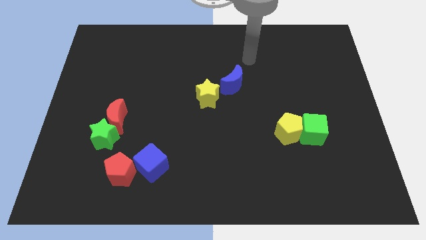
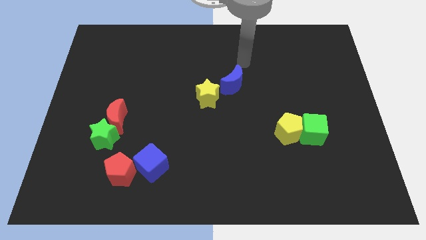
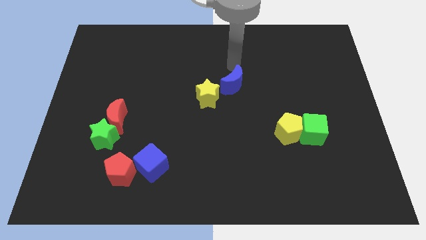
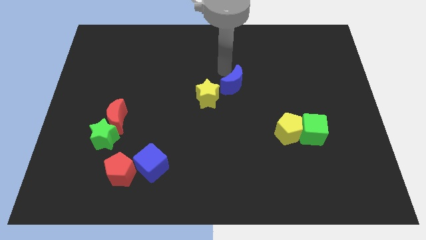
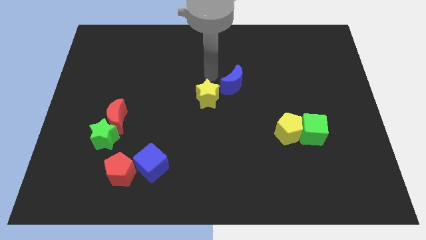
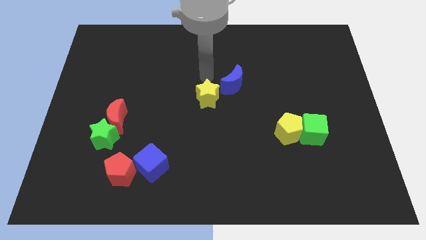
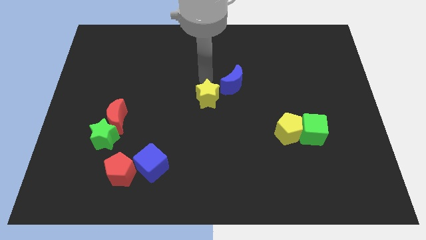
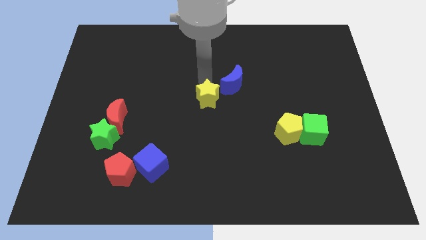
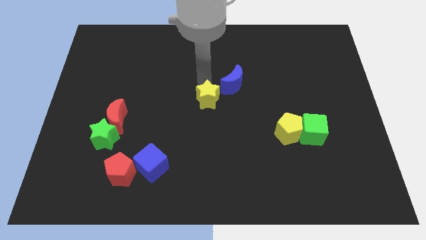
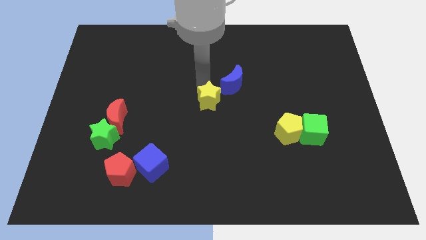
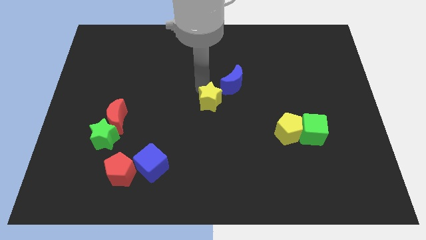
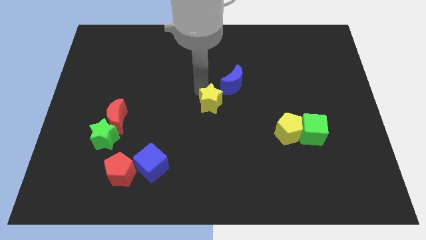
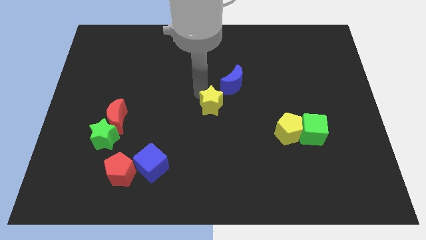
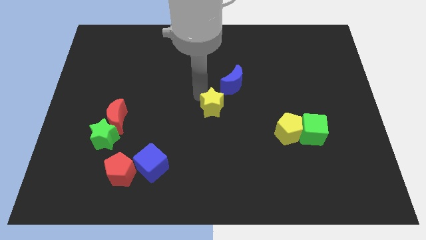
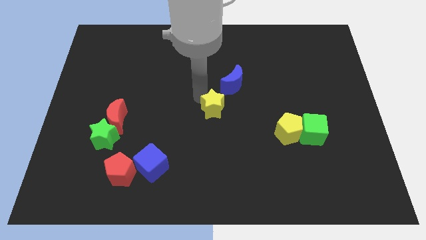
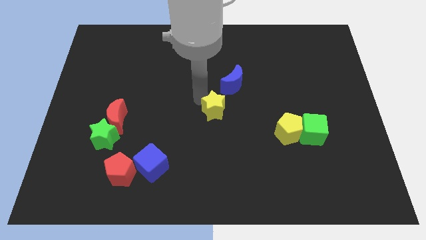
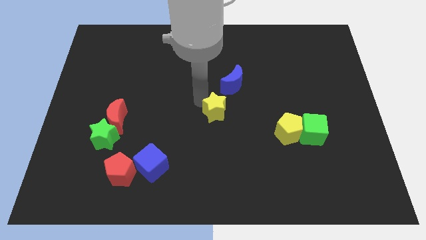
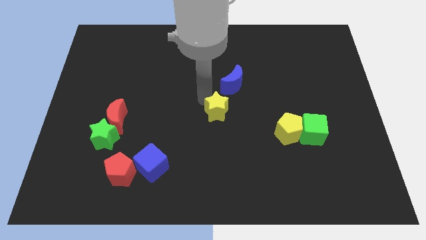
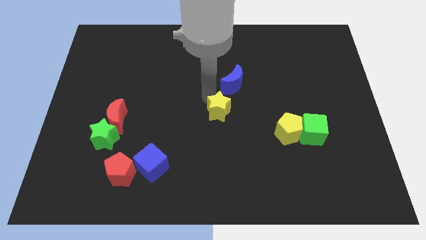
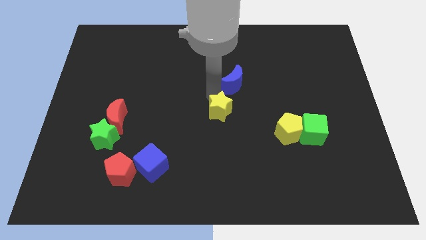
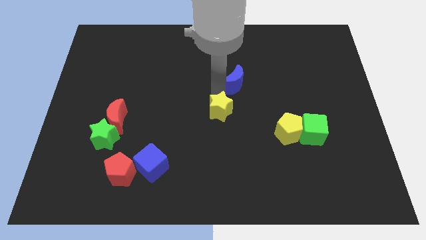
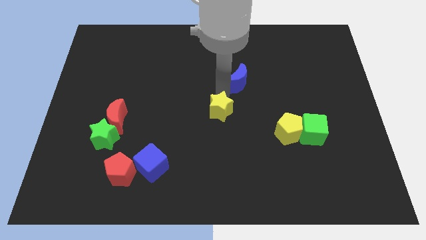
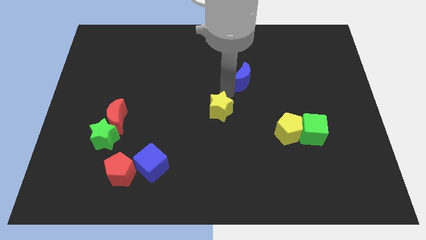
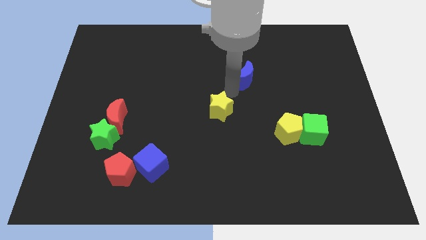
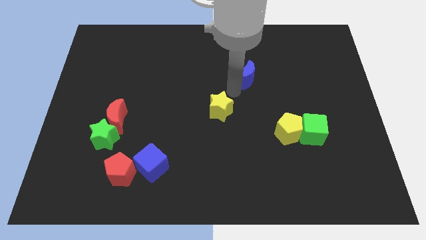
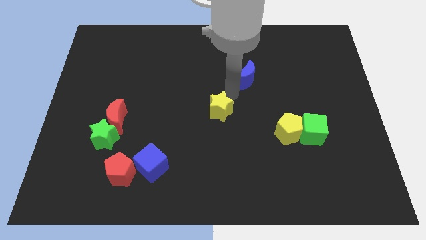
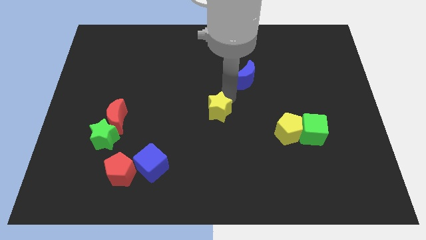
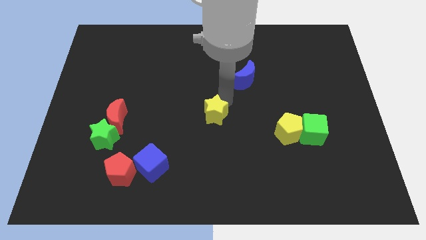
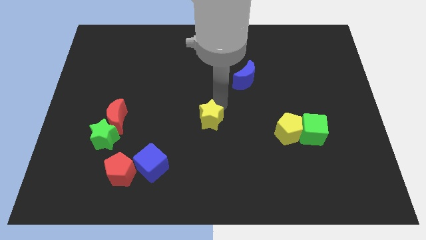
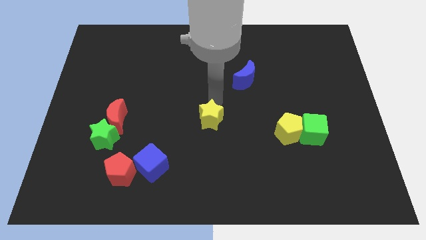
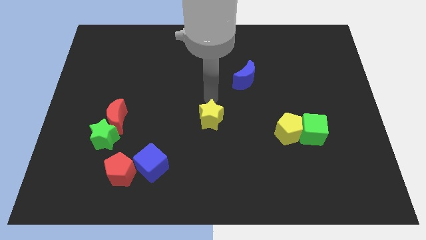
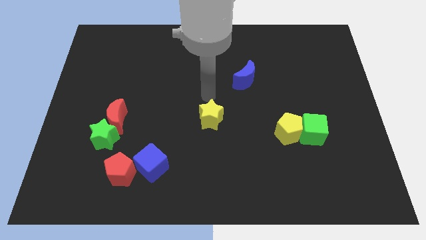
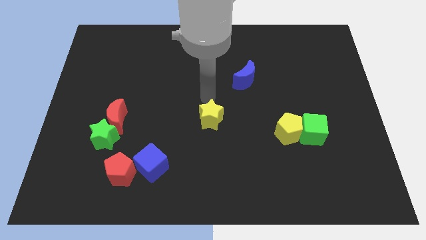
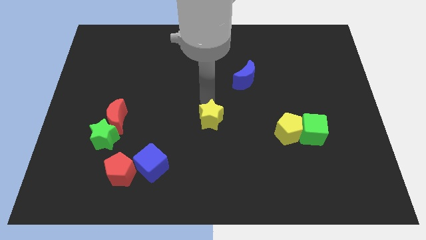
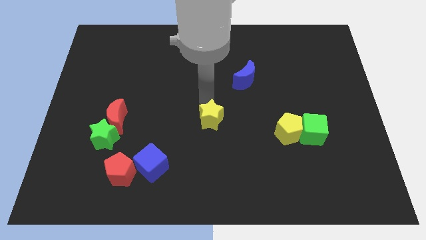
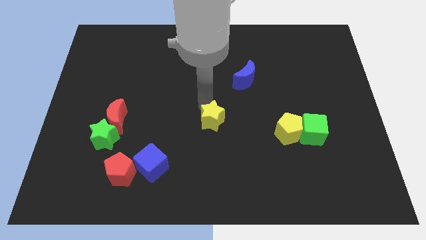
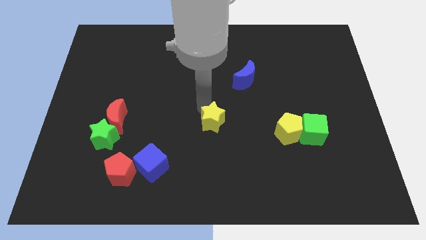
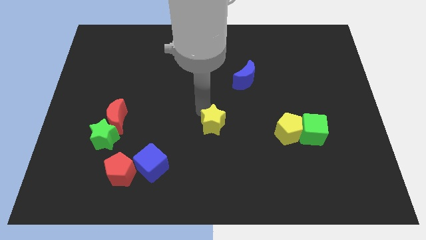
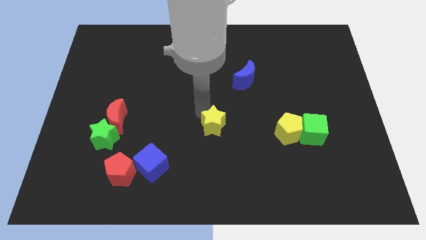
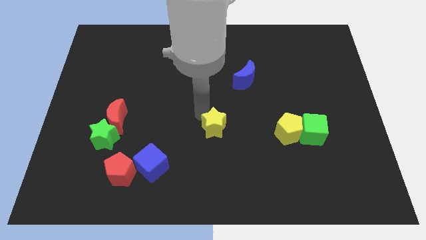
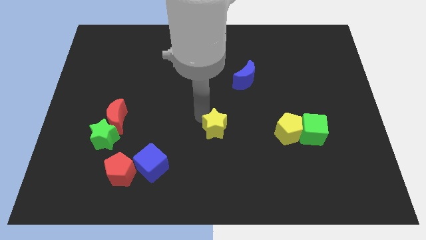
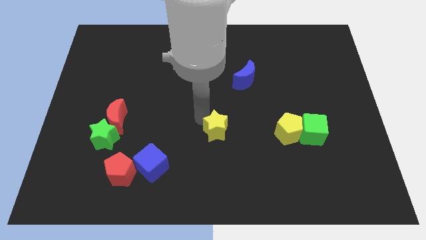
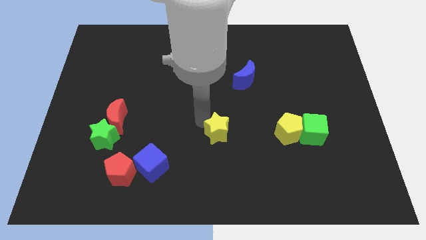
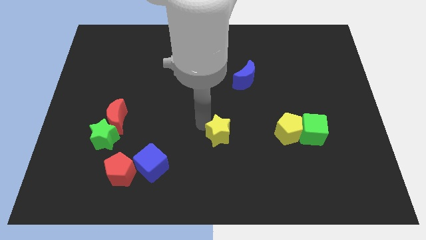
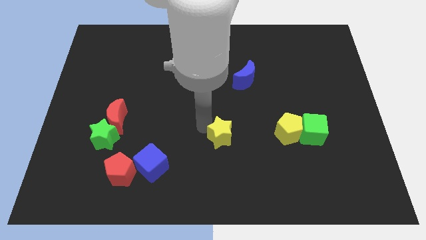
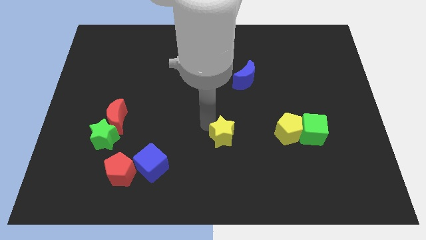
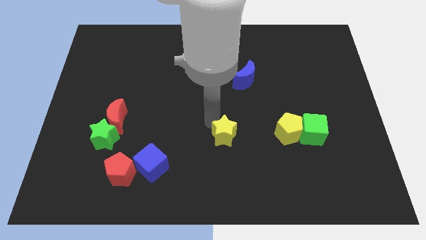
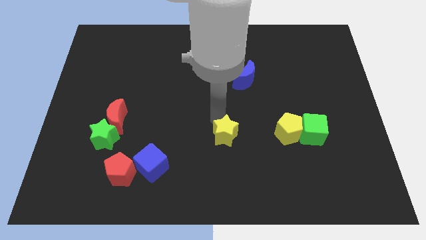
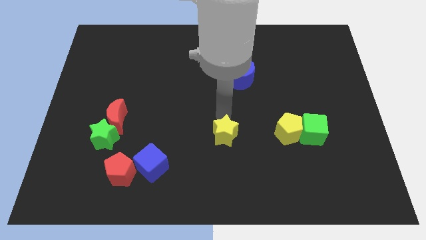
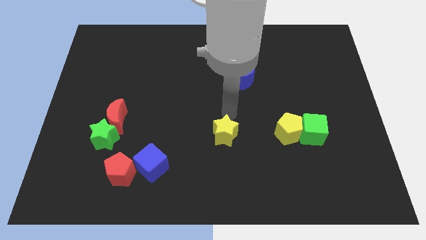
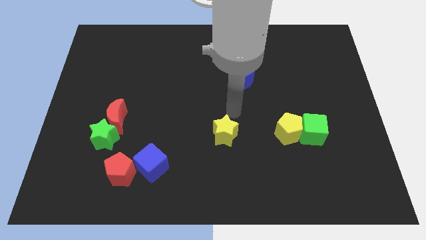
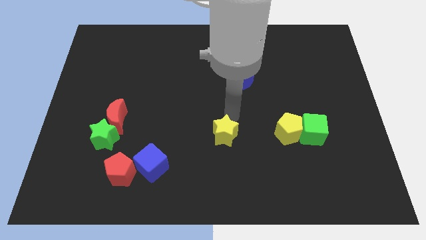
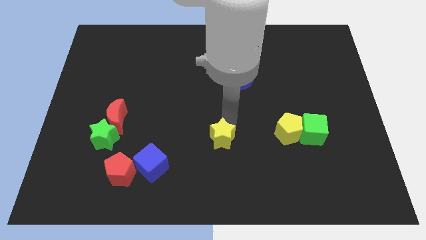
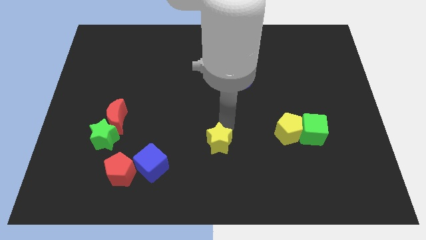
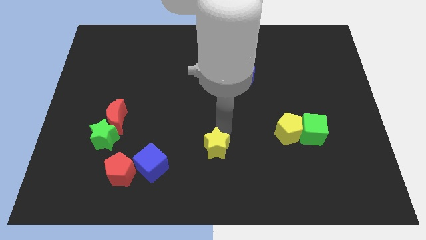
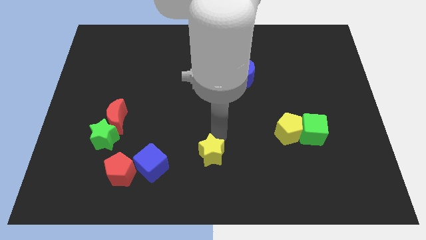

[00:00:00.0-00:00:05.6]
put the yellow star to the bottom side

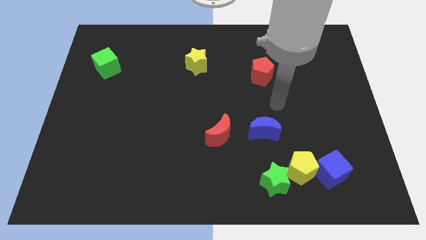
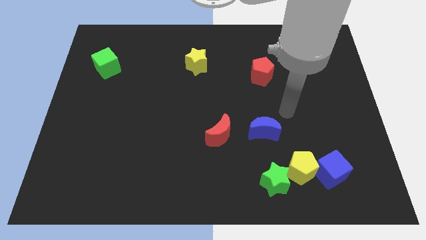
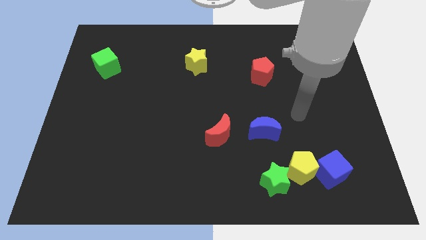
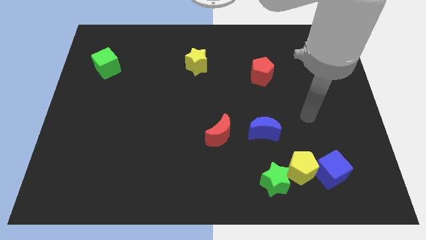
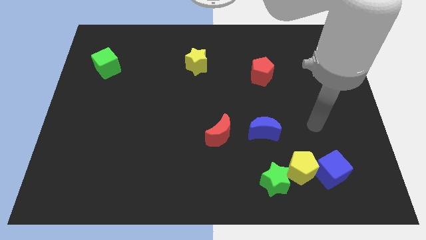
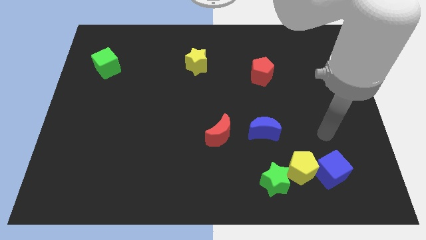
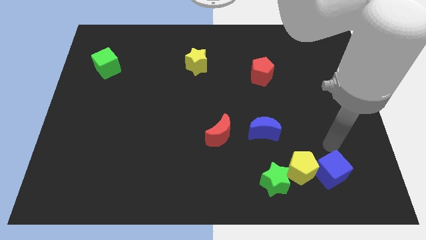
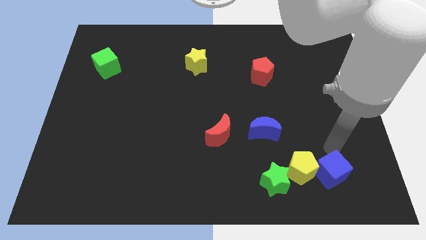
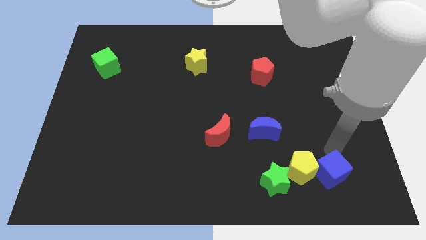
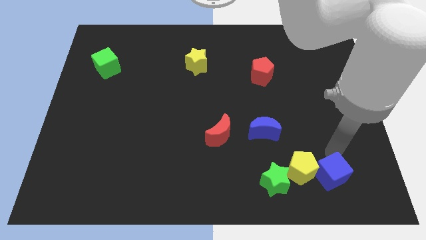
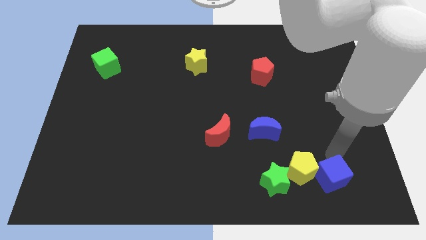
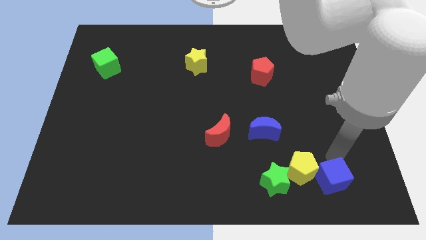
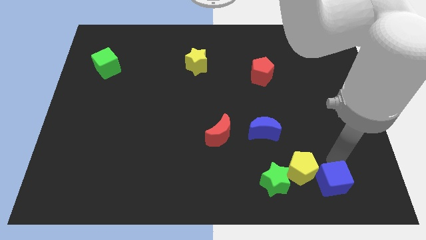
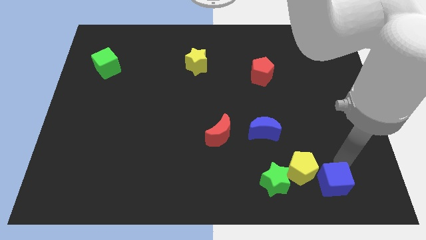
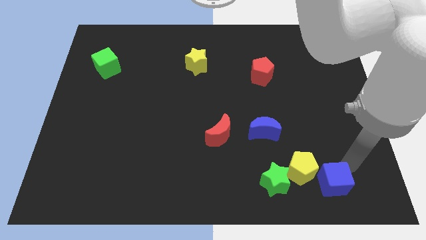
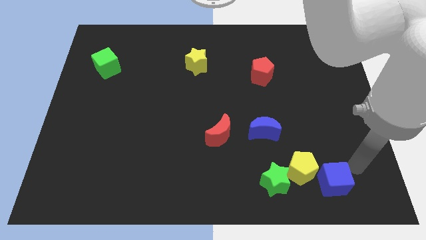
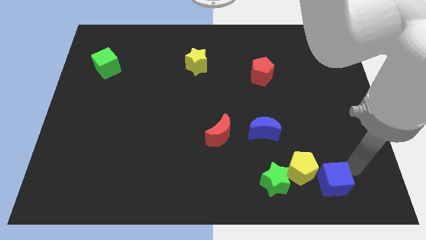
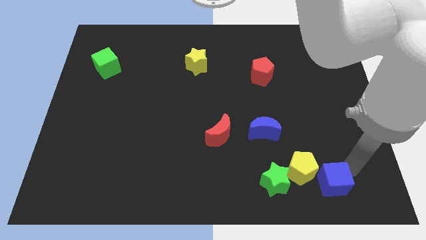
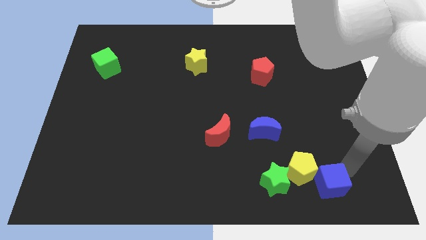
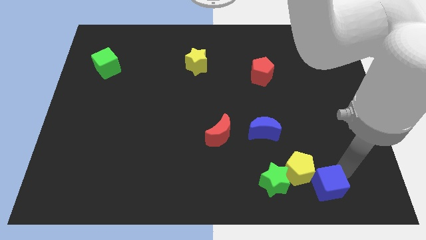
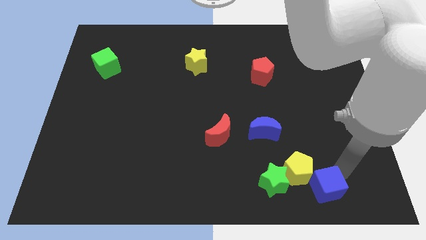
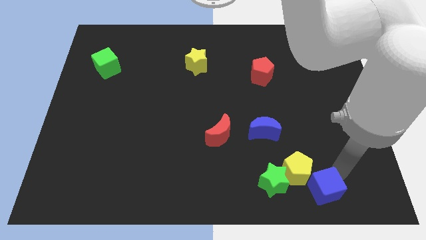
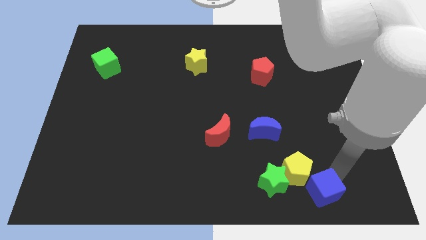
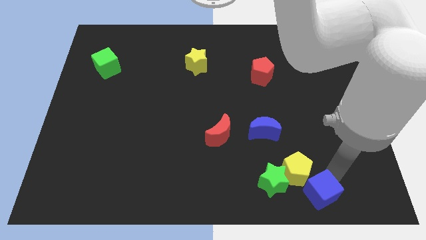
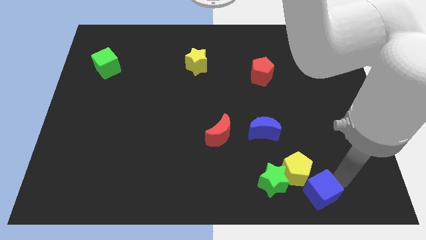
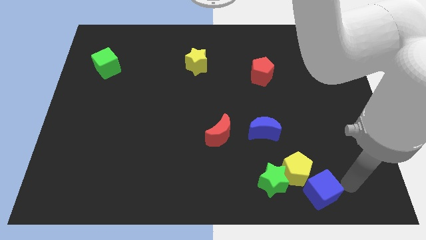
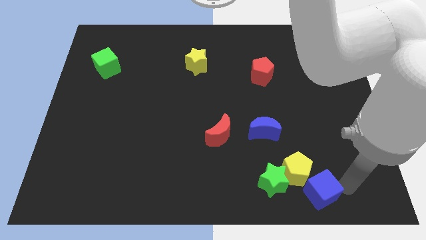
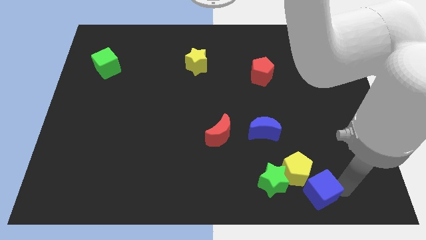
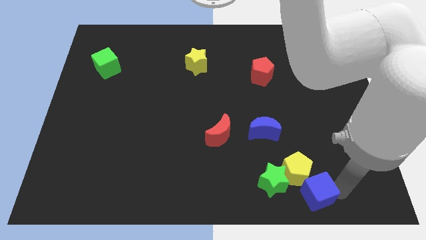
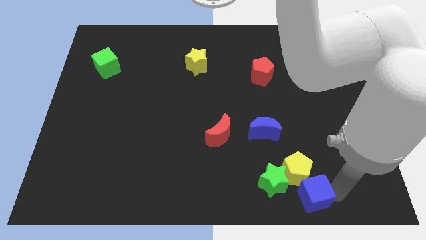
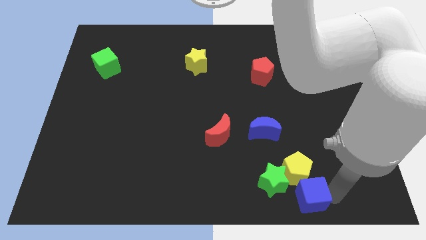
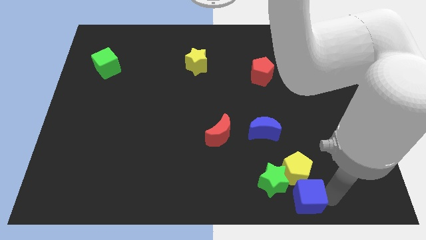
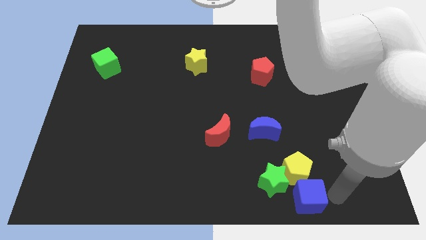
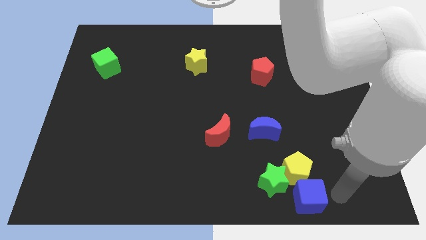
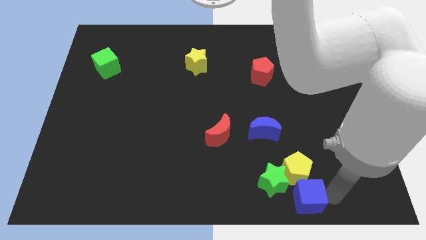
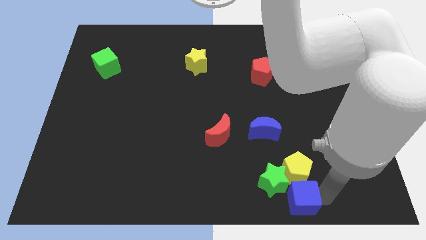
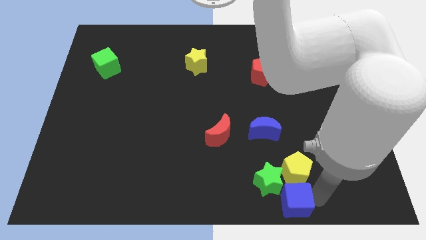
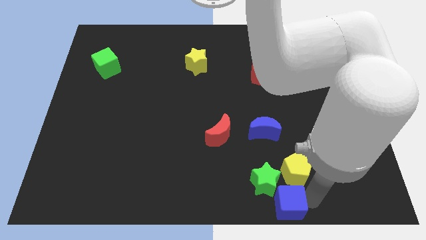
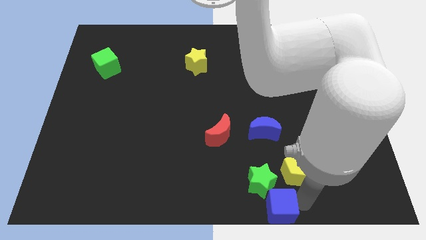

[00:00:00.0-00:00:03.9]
move the blue cube to the bottom
